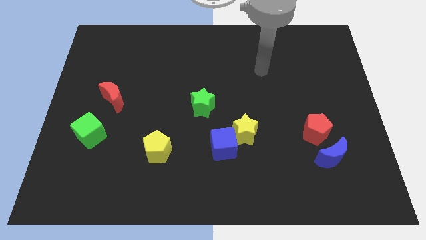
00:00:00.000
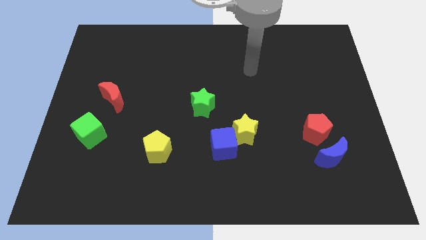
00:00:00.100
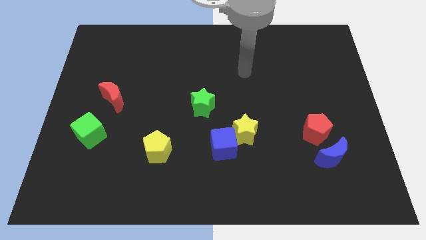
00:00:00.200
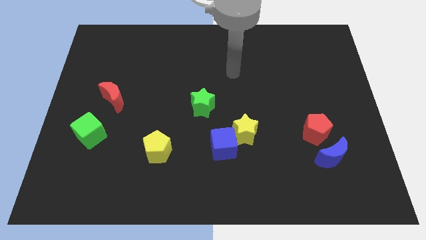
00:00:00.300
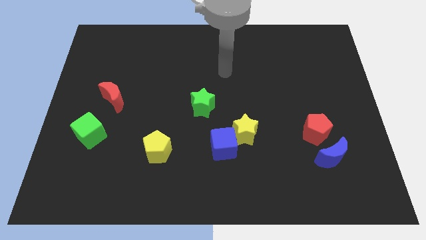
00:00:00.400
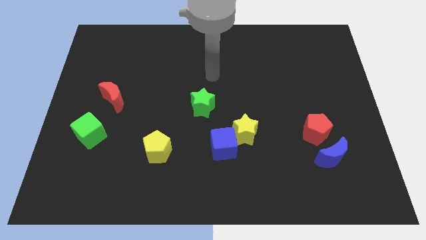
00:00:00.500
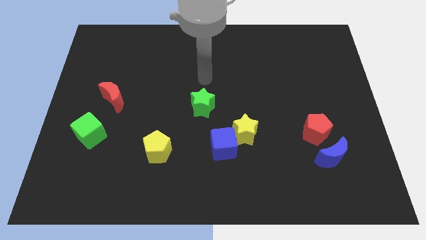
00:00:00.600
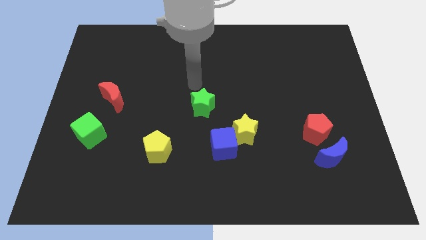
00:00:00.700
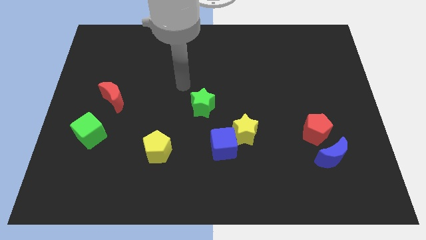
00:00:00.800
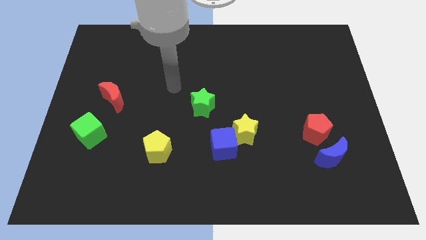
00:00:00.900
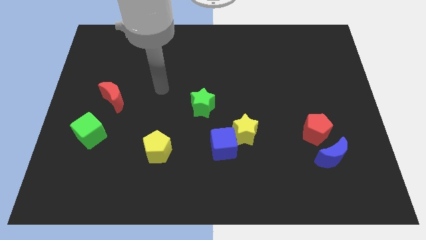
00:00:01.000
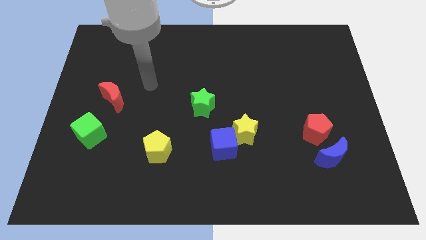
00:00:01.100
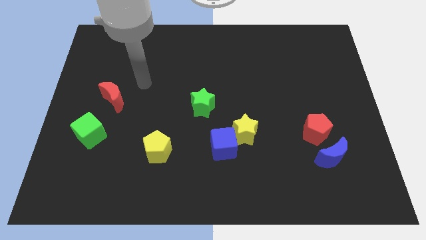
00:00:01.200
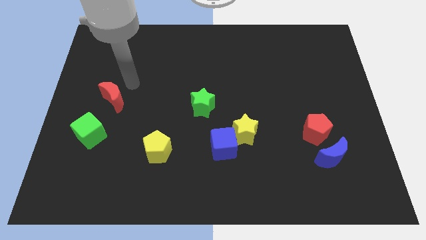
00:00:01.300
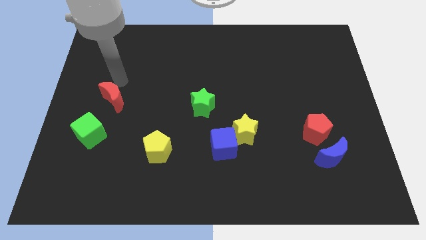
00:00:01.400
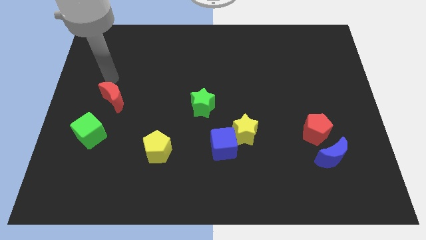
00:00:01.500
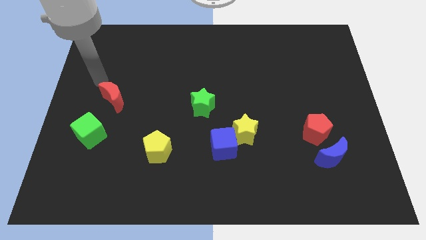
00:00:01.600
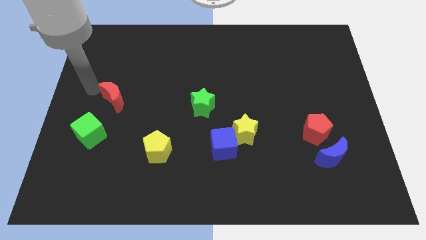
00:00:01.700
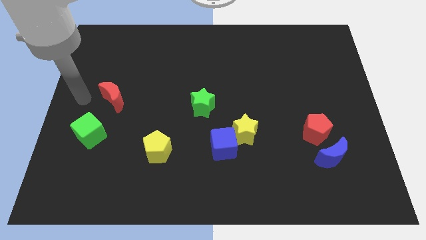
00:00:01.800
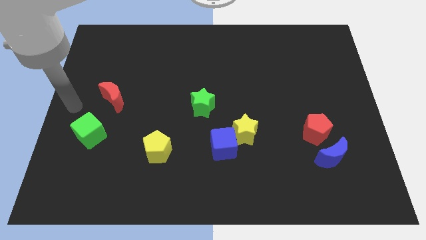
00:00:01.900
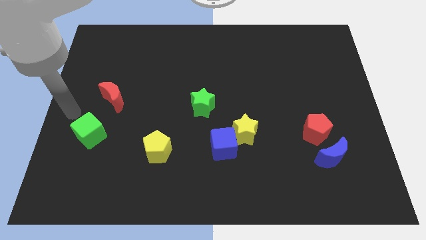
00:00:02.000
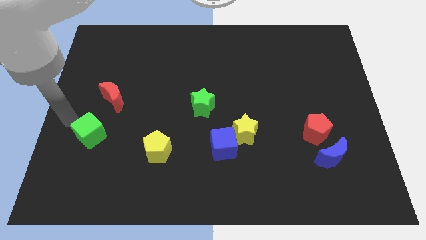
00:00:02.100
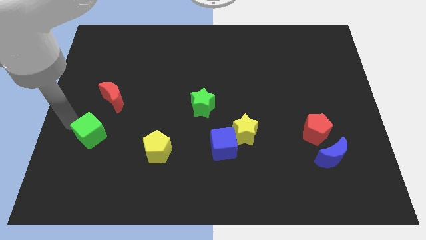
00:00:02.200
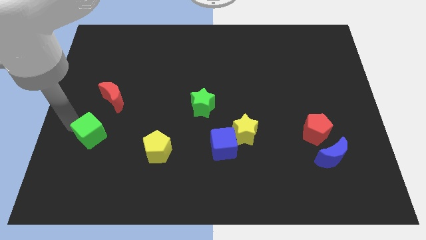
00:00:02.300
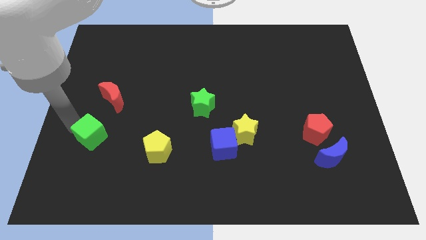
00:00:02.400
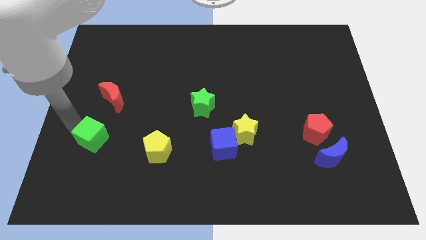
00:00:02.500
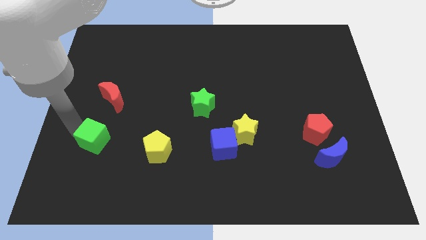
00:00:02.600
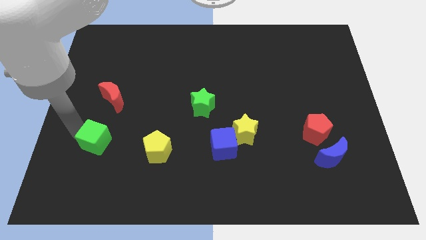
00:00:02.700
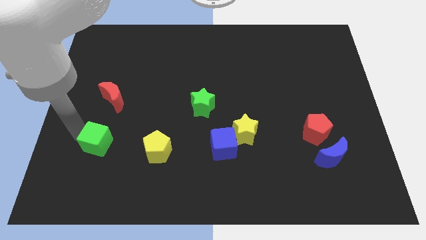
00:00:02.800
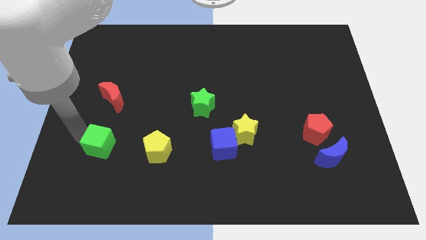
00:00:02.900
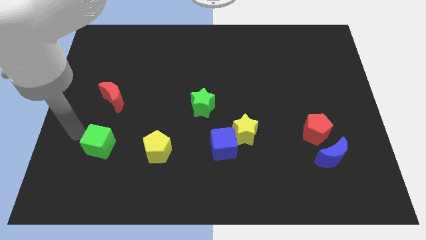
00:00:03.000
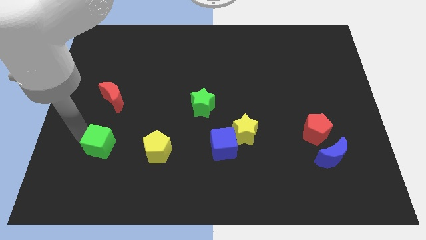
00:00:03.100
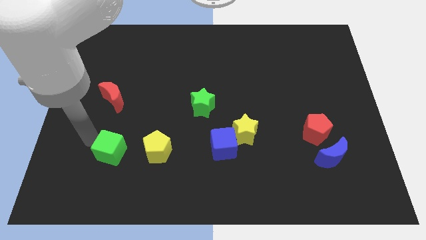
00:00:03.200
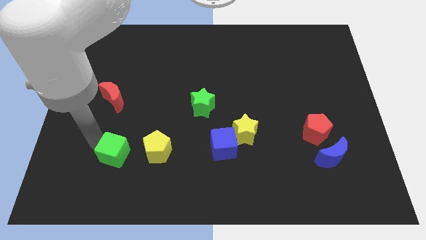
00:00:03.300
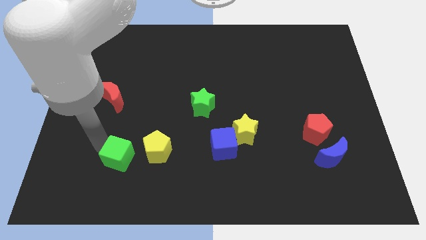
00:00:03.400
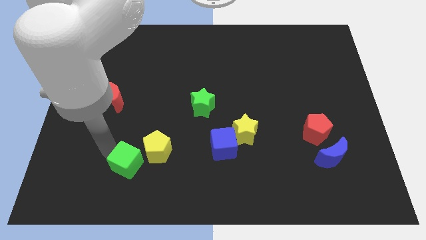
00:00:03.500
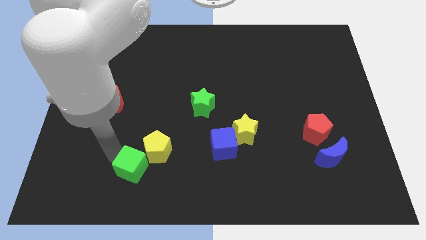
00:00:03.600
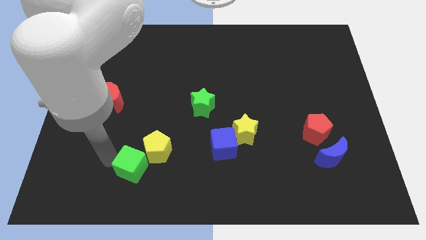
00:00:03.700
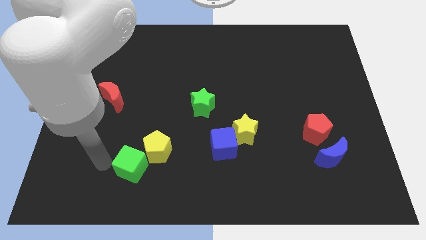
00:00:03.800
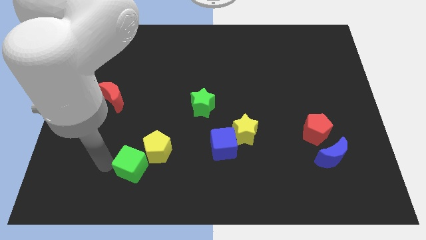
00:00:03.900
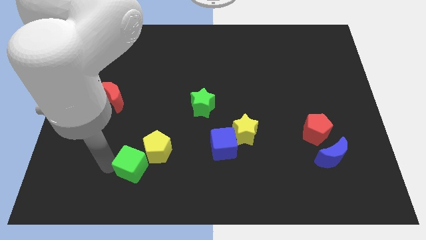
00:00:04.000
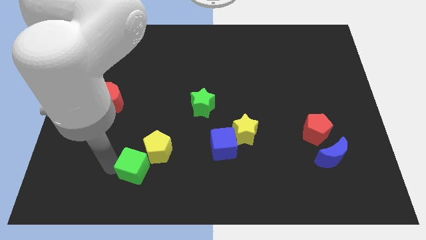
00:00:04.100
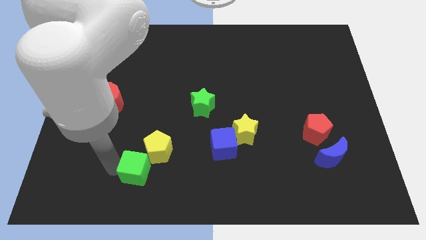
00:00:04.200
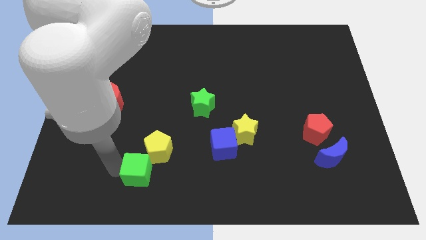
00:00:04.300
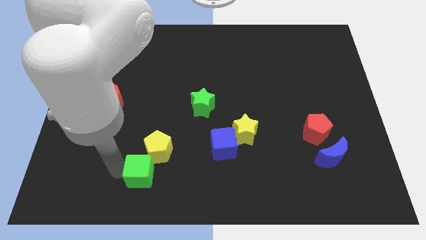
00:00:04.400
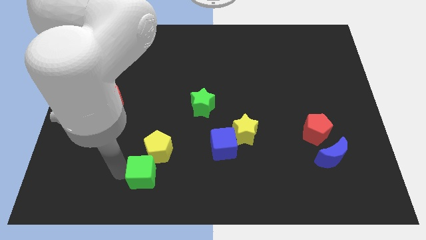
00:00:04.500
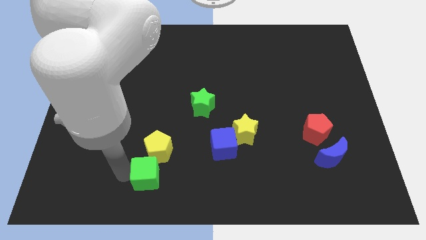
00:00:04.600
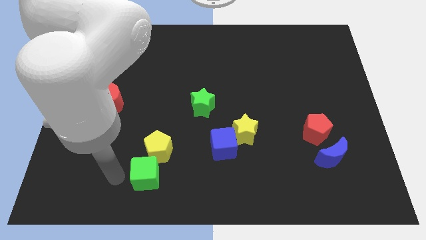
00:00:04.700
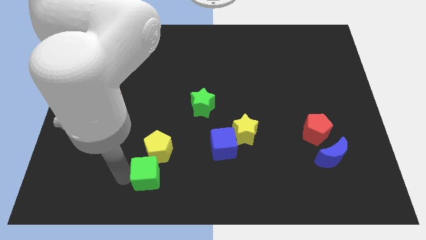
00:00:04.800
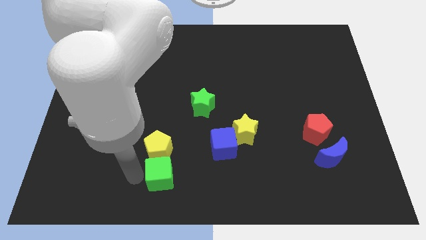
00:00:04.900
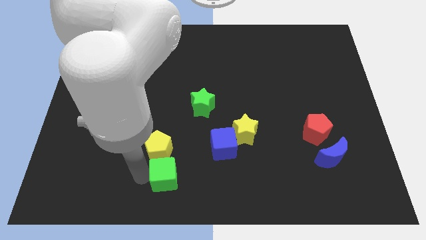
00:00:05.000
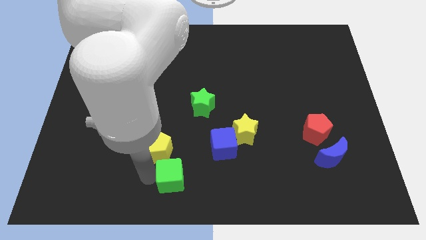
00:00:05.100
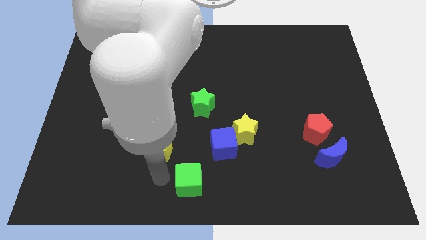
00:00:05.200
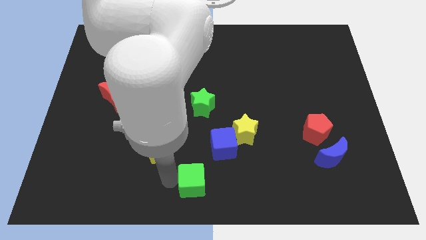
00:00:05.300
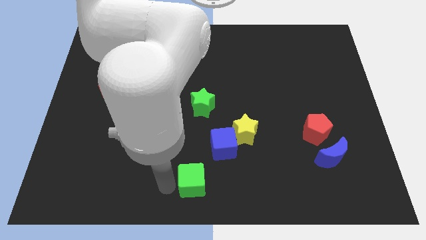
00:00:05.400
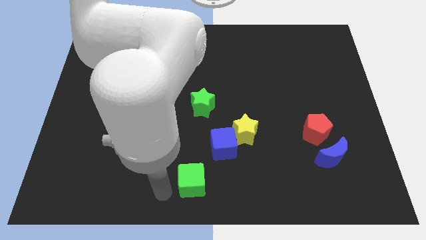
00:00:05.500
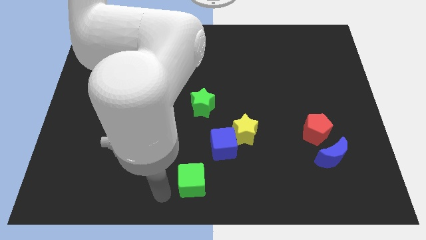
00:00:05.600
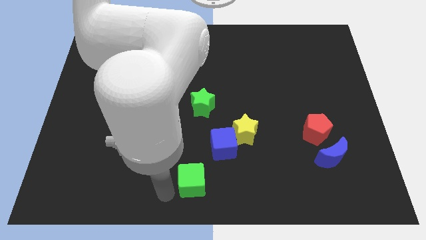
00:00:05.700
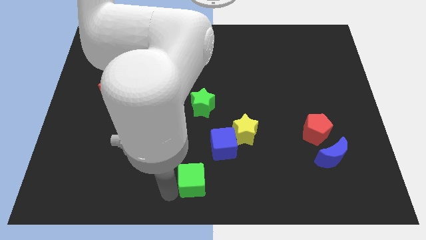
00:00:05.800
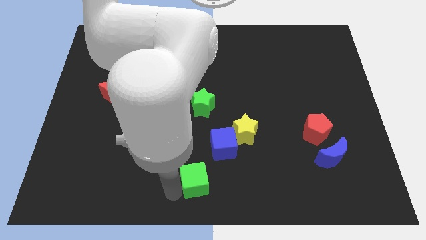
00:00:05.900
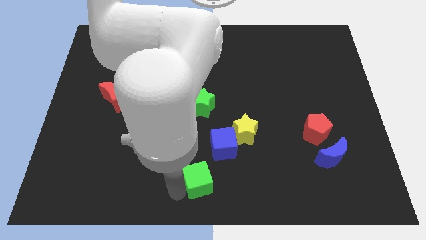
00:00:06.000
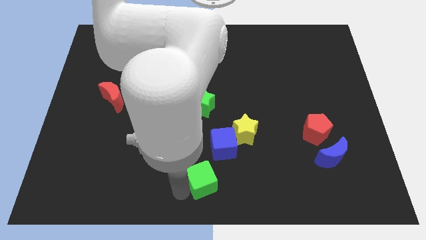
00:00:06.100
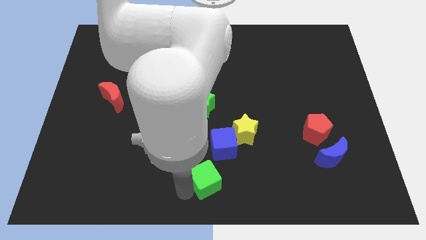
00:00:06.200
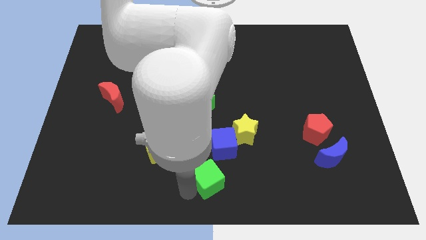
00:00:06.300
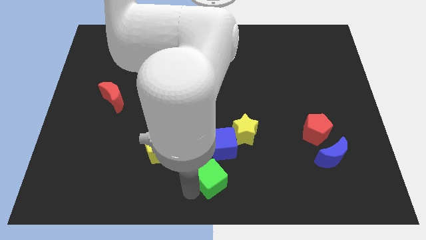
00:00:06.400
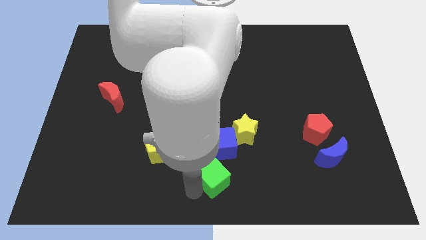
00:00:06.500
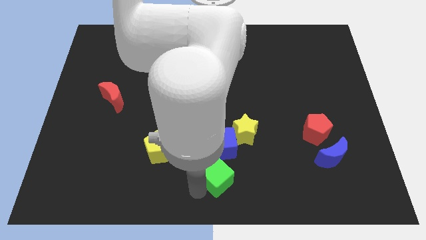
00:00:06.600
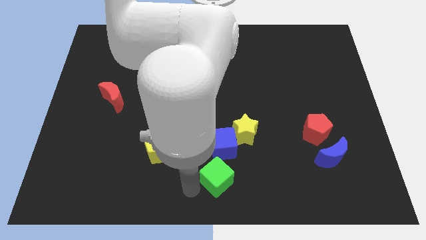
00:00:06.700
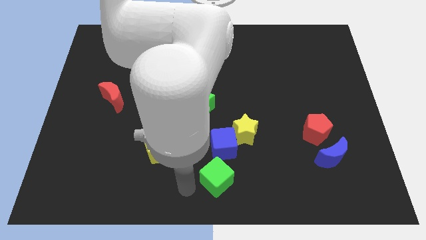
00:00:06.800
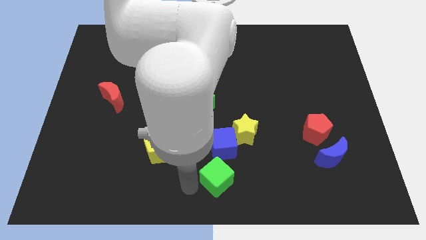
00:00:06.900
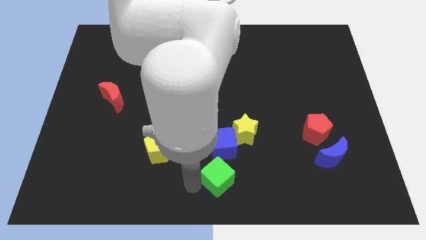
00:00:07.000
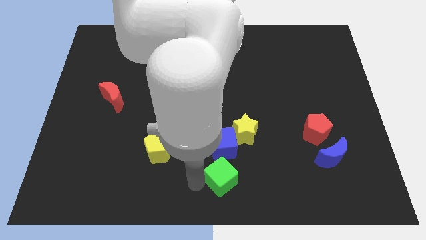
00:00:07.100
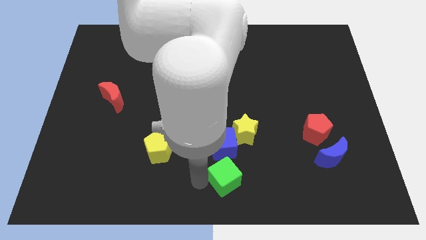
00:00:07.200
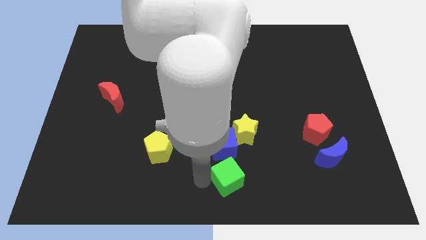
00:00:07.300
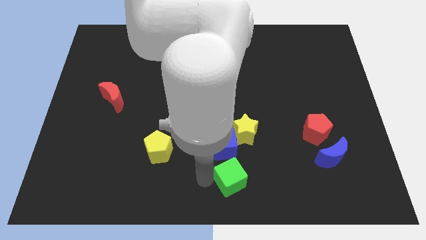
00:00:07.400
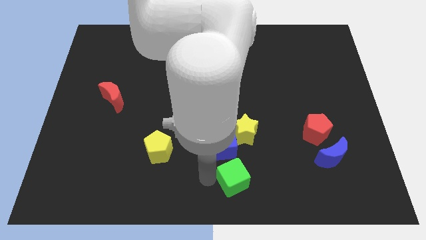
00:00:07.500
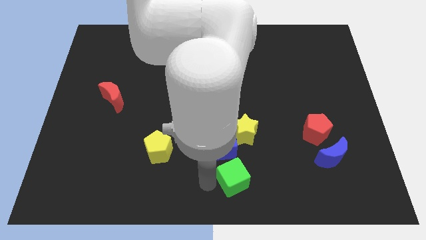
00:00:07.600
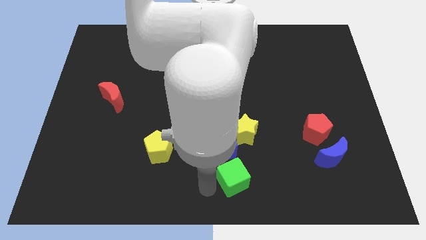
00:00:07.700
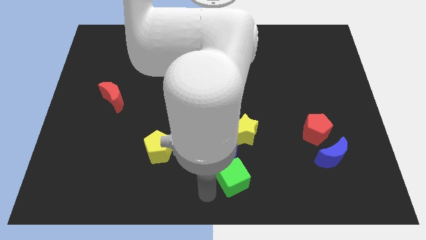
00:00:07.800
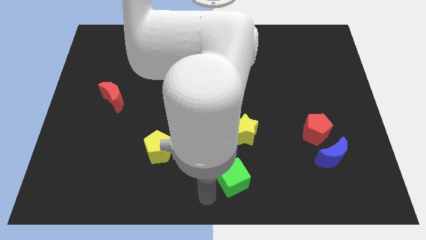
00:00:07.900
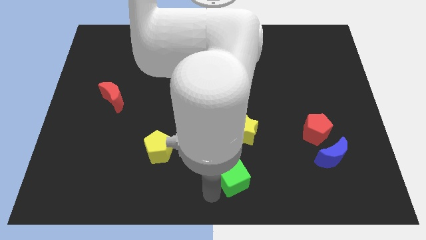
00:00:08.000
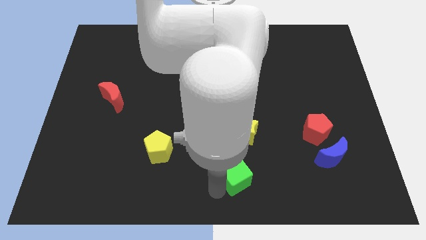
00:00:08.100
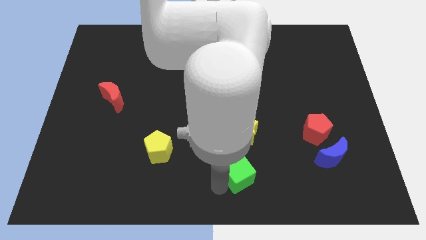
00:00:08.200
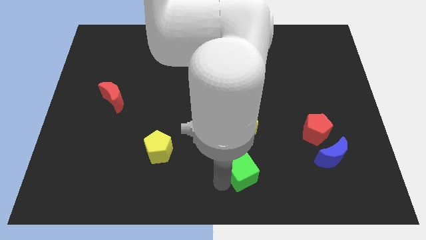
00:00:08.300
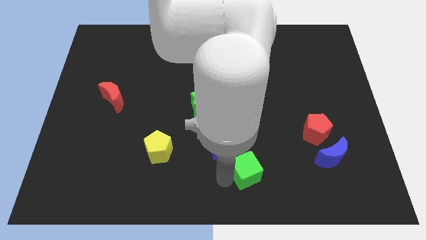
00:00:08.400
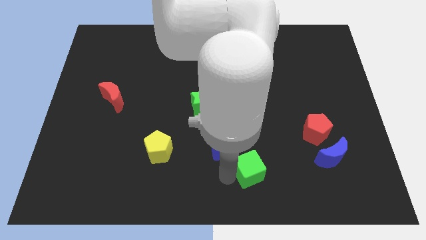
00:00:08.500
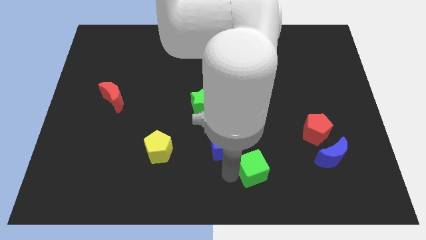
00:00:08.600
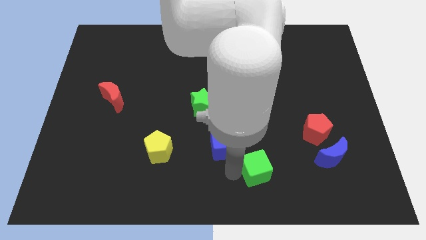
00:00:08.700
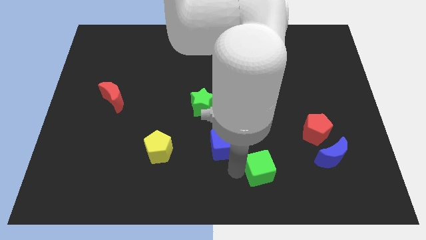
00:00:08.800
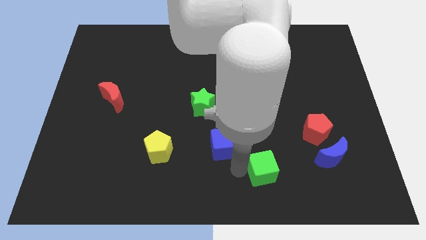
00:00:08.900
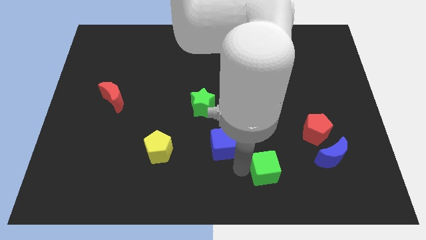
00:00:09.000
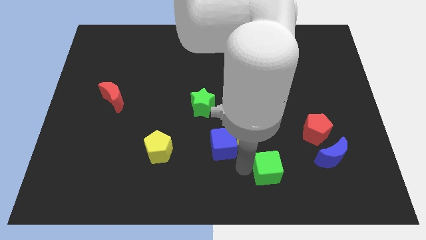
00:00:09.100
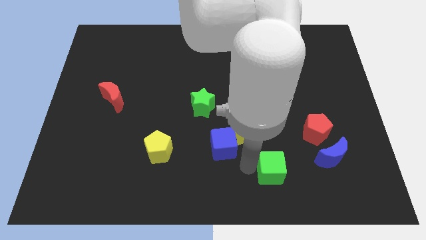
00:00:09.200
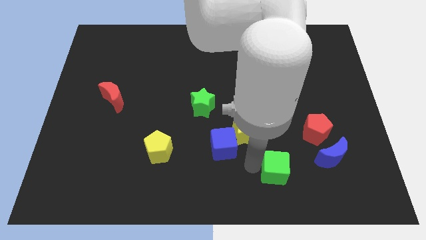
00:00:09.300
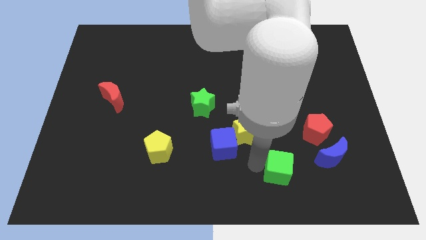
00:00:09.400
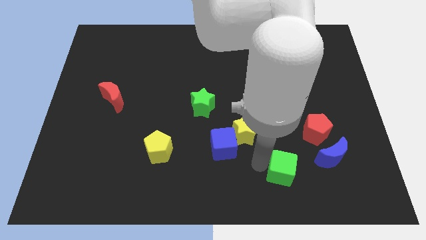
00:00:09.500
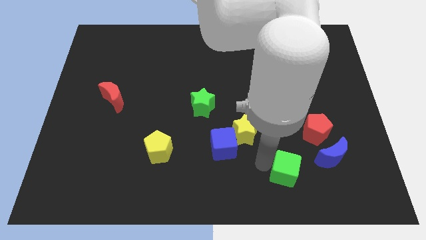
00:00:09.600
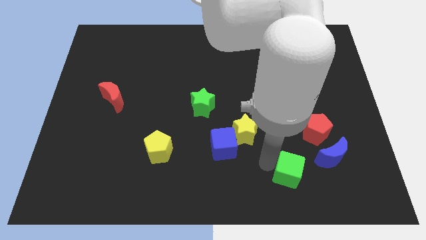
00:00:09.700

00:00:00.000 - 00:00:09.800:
put the green cube to the bottom left side of the blue moon
